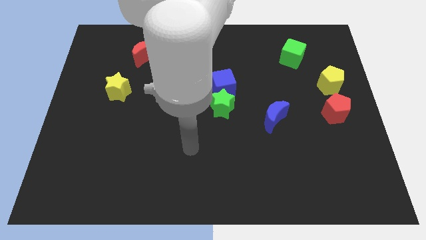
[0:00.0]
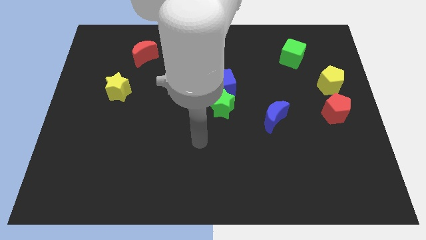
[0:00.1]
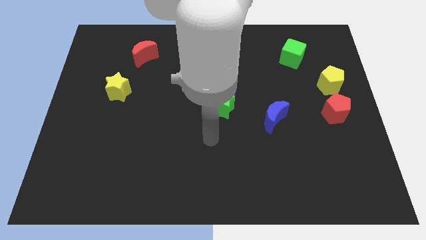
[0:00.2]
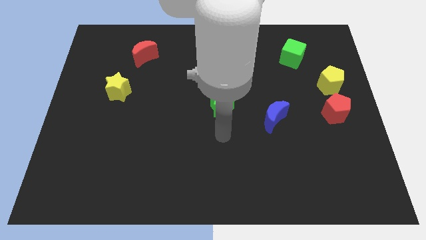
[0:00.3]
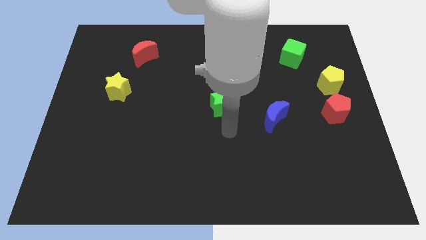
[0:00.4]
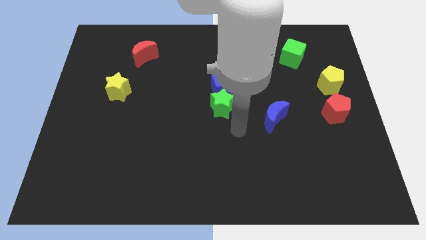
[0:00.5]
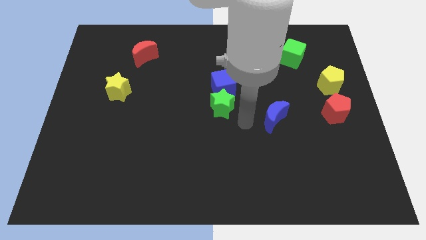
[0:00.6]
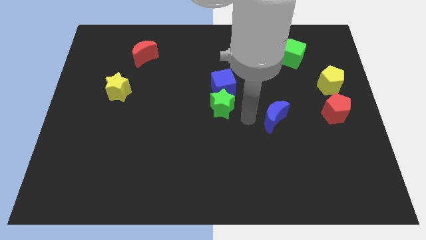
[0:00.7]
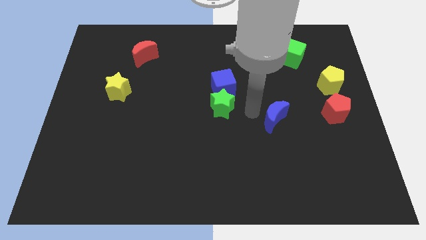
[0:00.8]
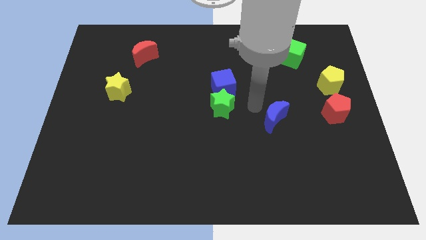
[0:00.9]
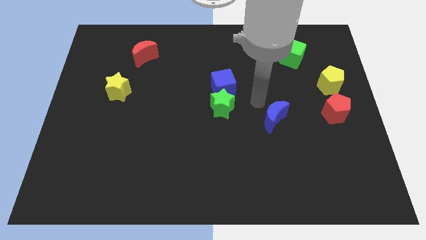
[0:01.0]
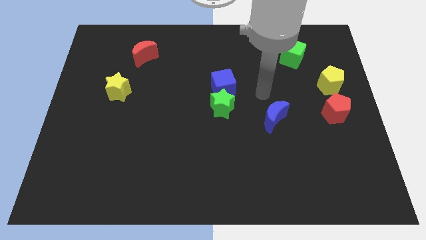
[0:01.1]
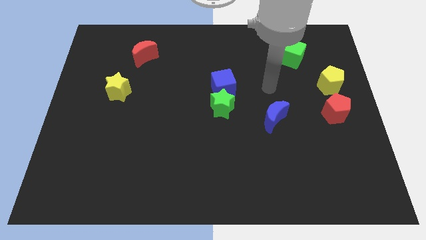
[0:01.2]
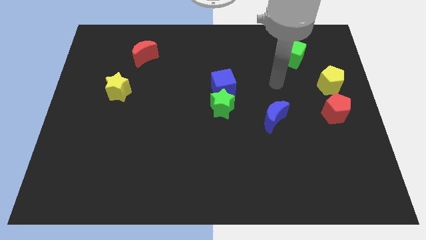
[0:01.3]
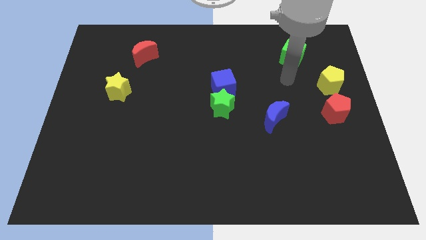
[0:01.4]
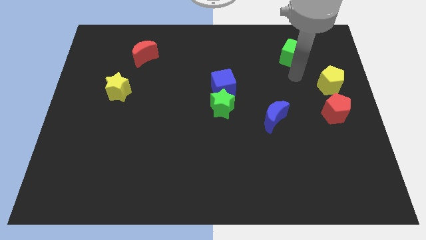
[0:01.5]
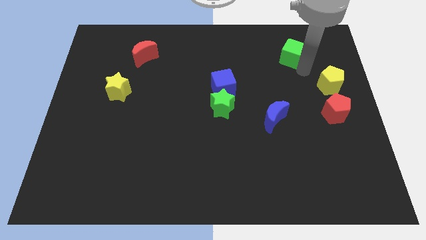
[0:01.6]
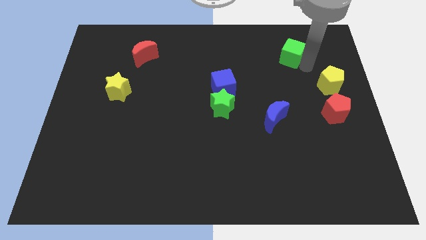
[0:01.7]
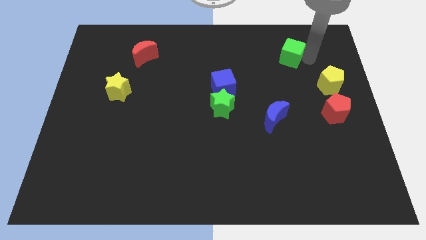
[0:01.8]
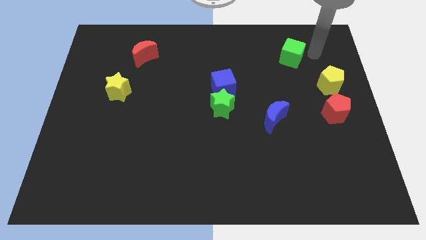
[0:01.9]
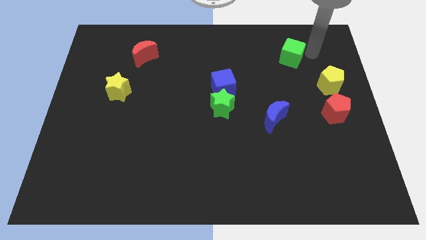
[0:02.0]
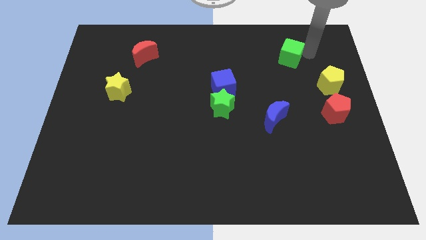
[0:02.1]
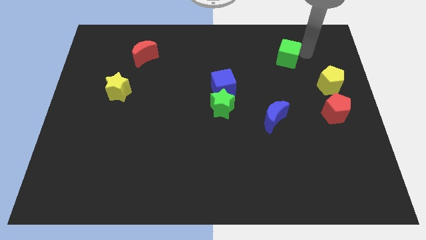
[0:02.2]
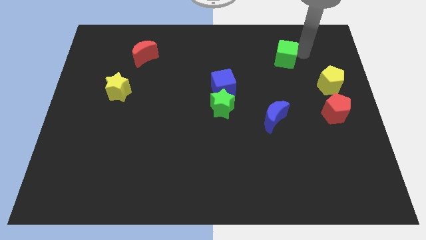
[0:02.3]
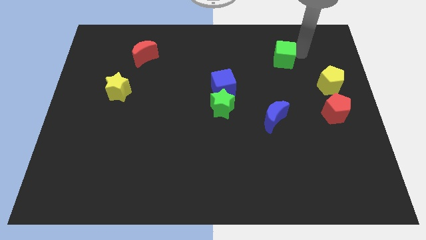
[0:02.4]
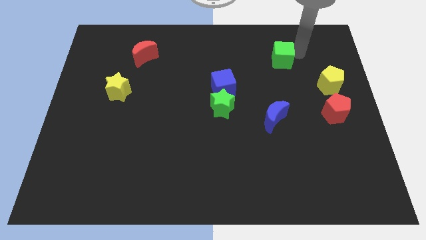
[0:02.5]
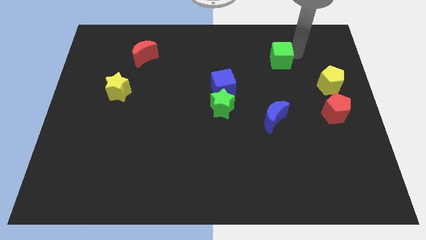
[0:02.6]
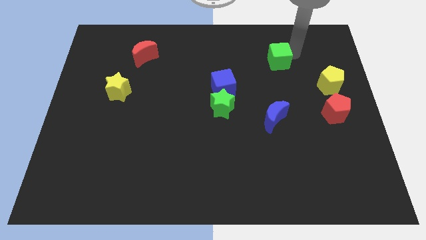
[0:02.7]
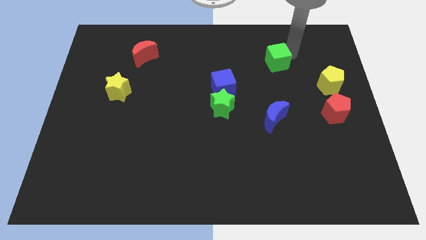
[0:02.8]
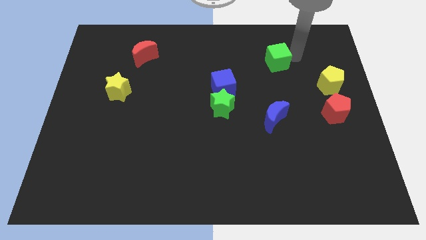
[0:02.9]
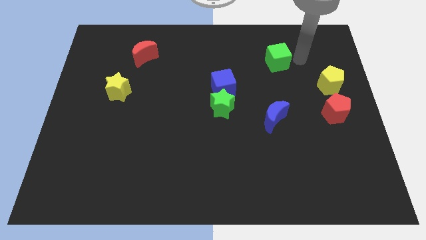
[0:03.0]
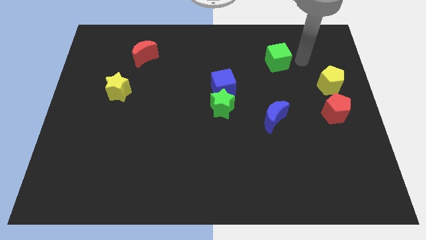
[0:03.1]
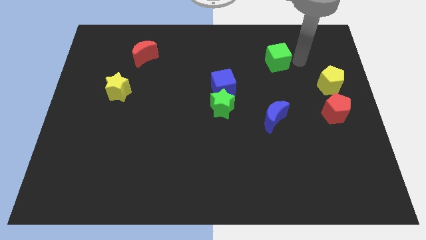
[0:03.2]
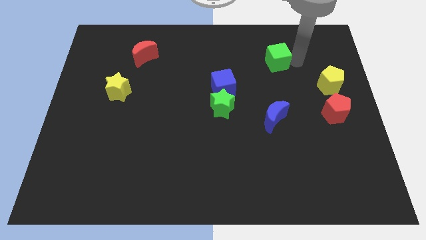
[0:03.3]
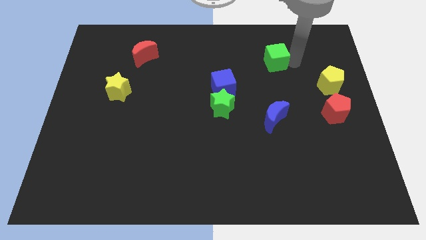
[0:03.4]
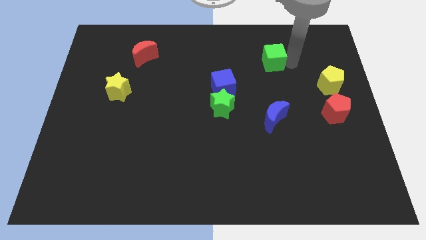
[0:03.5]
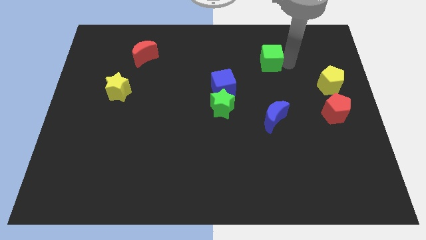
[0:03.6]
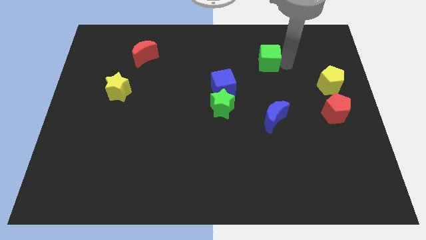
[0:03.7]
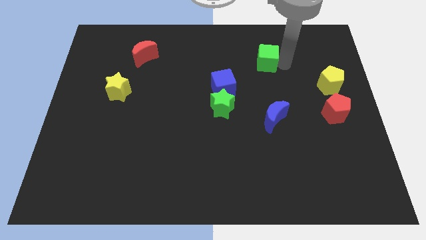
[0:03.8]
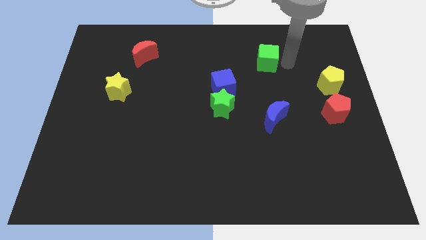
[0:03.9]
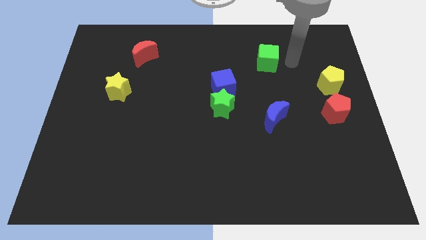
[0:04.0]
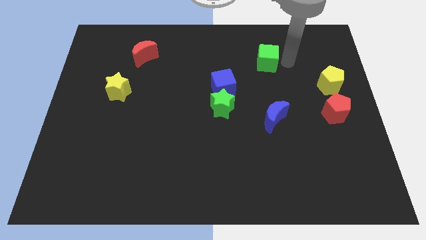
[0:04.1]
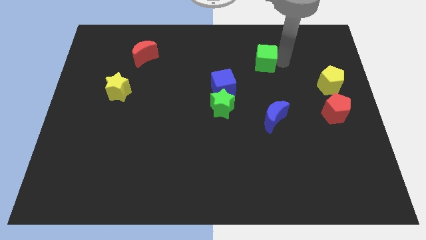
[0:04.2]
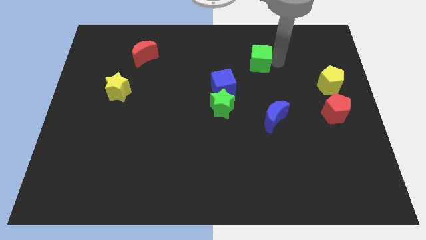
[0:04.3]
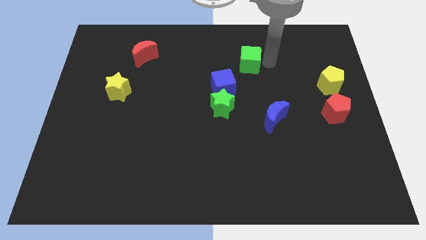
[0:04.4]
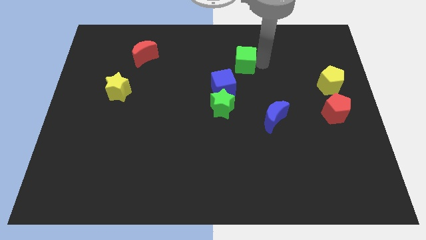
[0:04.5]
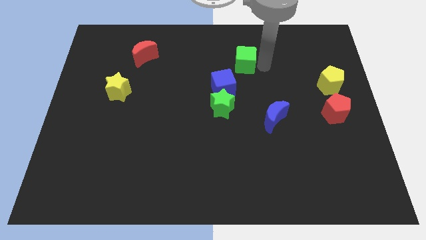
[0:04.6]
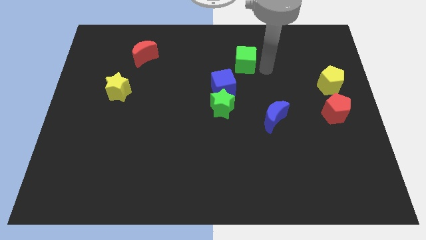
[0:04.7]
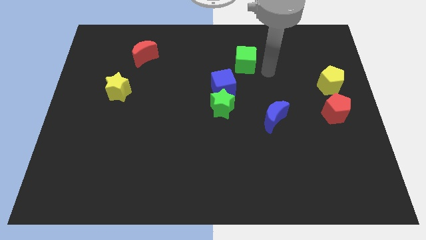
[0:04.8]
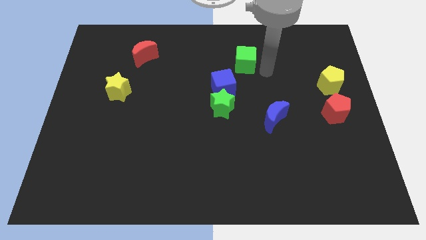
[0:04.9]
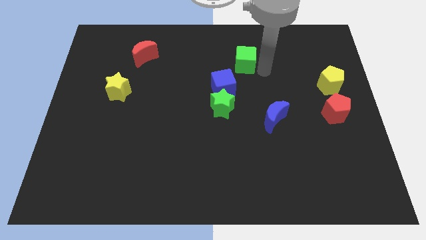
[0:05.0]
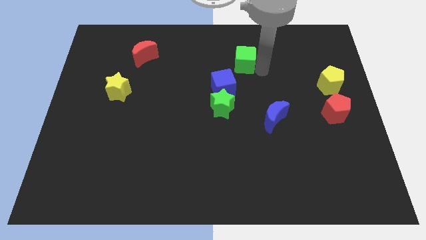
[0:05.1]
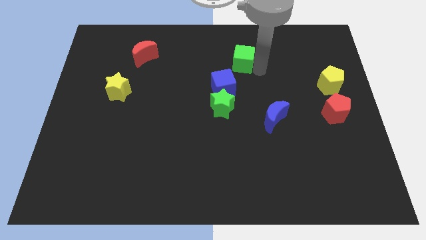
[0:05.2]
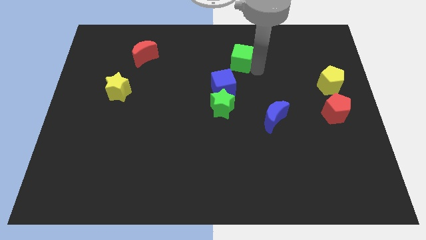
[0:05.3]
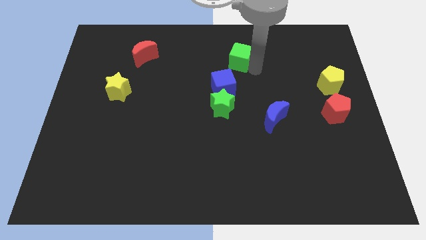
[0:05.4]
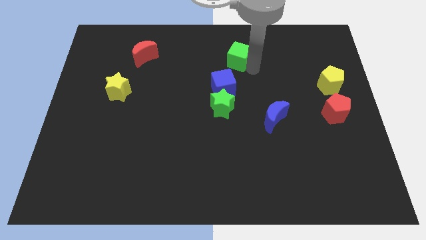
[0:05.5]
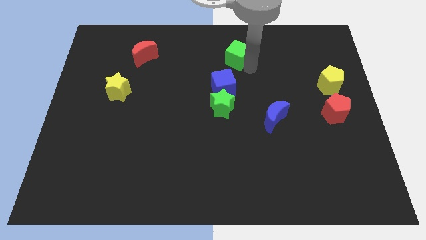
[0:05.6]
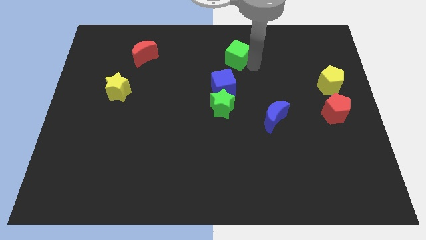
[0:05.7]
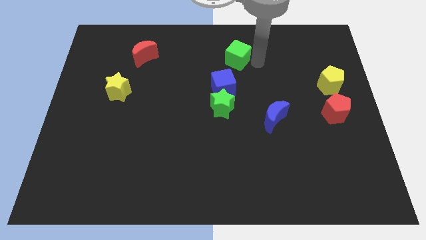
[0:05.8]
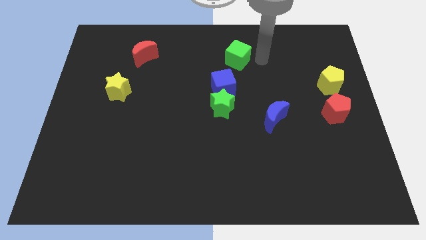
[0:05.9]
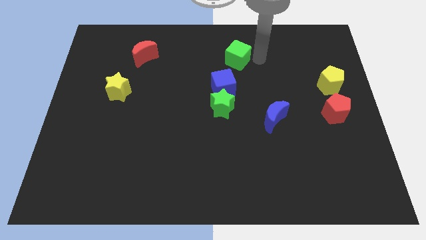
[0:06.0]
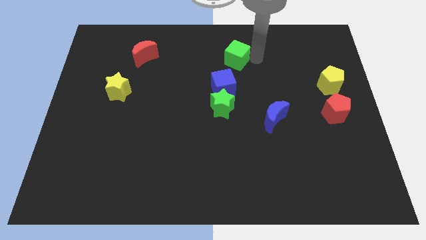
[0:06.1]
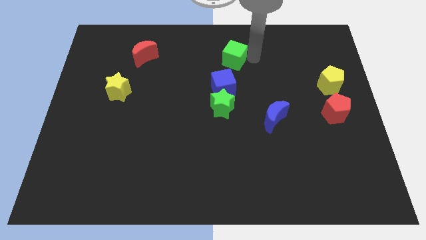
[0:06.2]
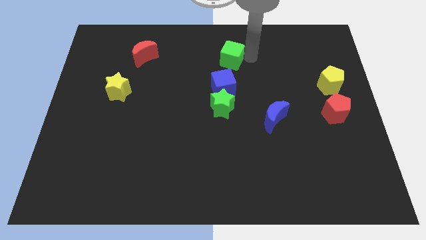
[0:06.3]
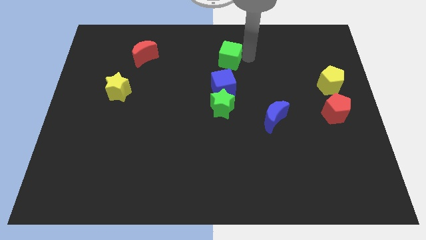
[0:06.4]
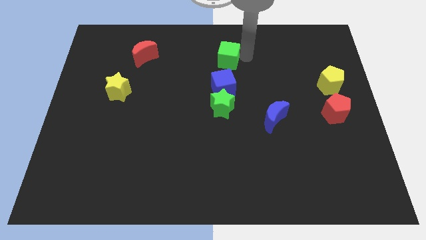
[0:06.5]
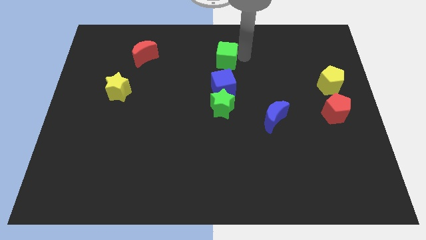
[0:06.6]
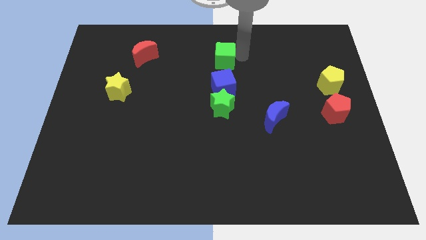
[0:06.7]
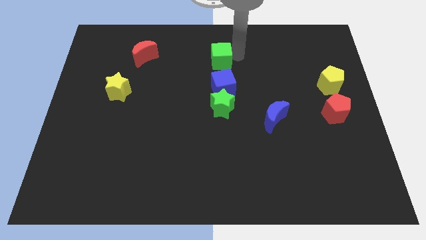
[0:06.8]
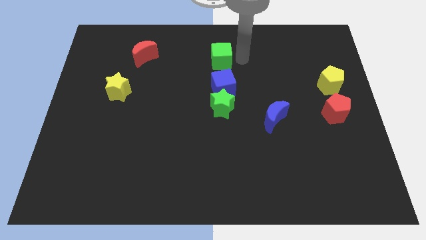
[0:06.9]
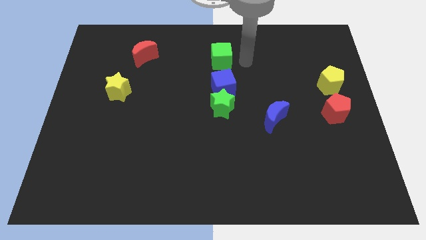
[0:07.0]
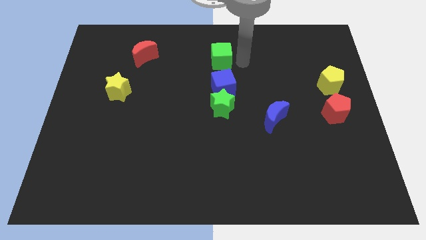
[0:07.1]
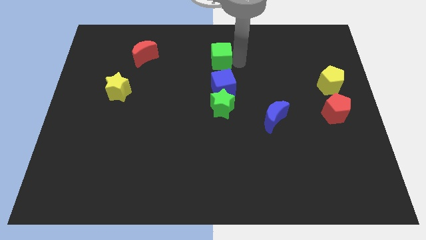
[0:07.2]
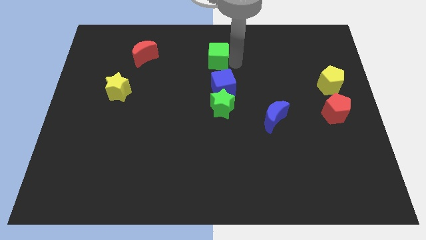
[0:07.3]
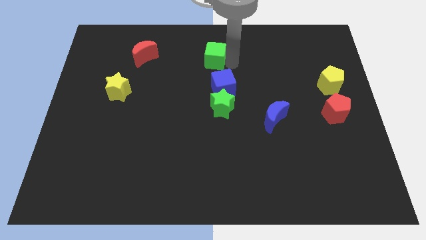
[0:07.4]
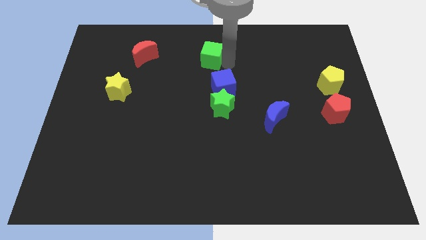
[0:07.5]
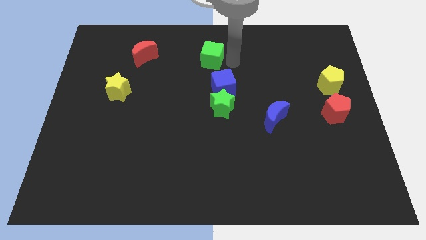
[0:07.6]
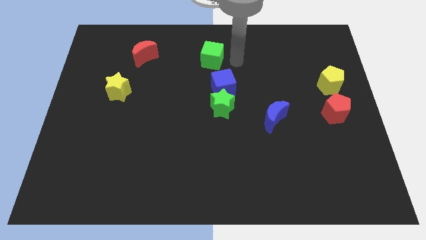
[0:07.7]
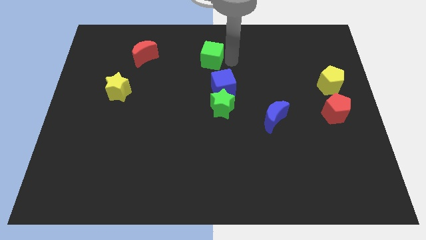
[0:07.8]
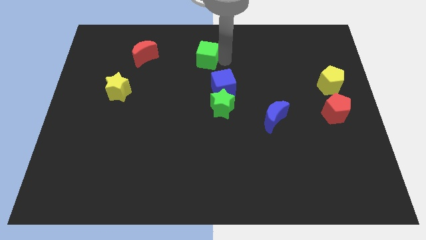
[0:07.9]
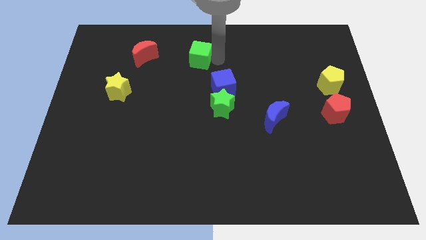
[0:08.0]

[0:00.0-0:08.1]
push the green cube right of the red moon
